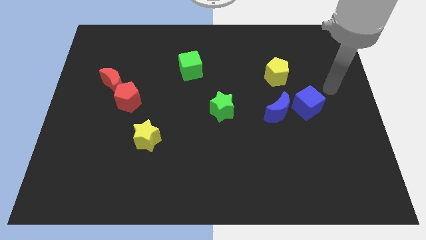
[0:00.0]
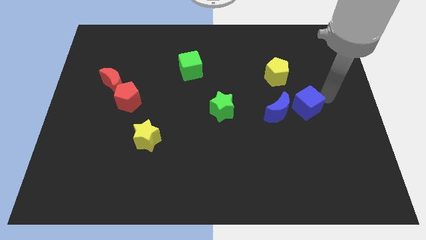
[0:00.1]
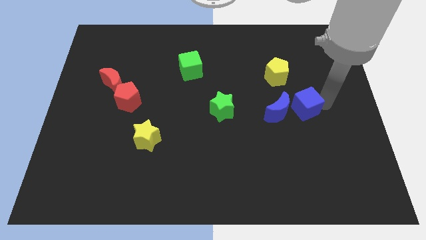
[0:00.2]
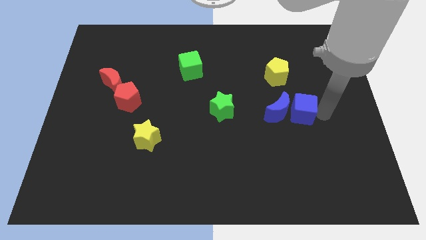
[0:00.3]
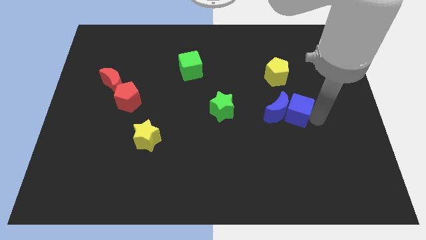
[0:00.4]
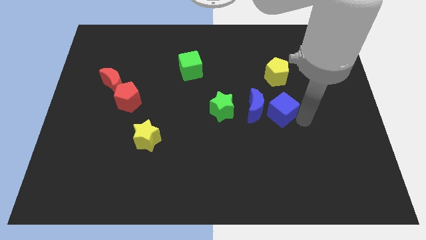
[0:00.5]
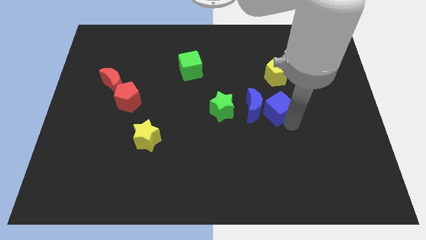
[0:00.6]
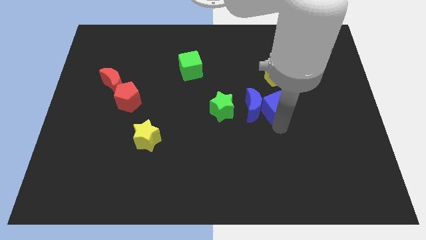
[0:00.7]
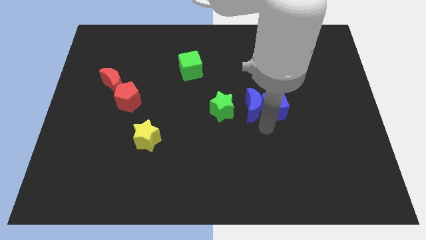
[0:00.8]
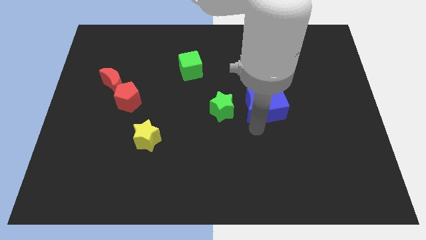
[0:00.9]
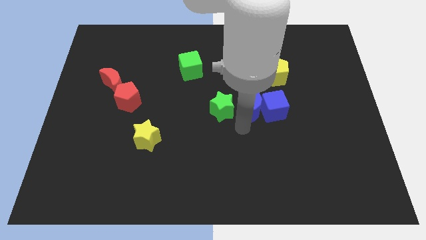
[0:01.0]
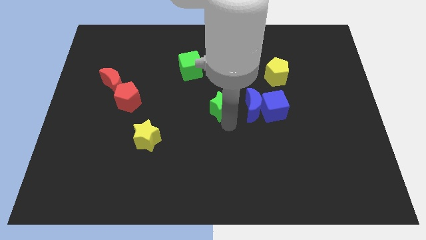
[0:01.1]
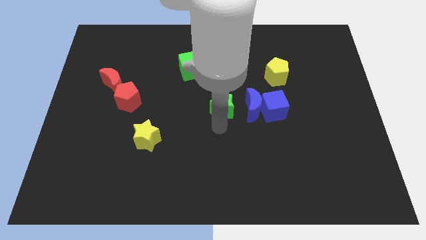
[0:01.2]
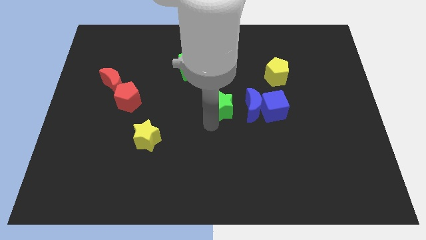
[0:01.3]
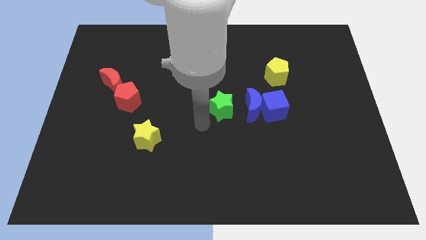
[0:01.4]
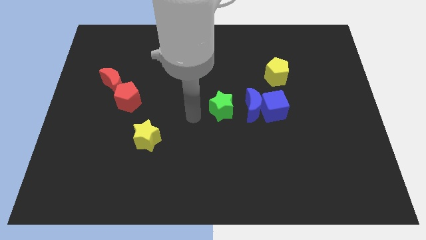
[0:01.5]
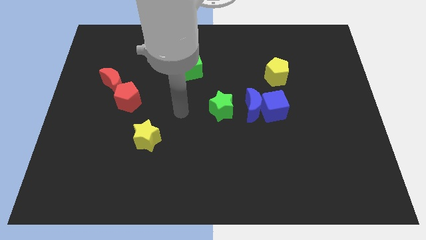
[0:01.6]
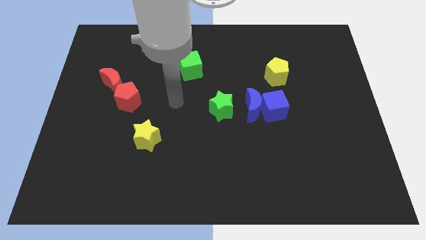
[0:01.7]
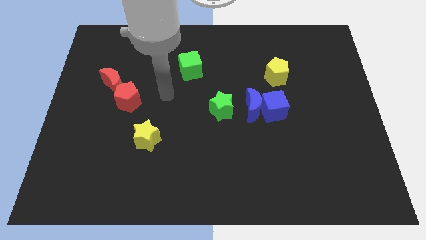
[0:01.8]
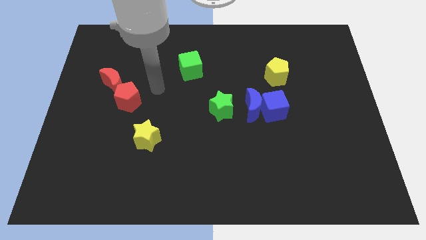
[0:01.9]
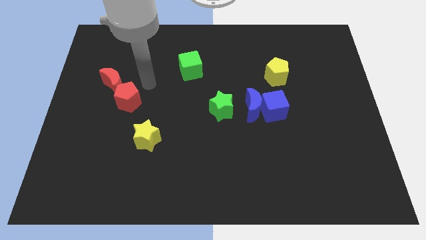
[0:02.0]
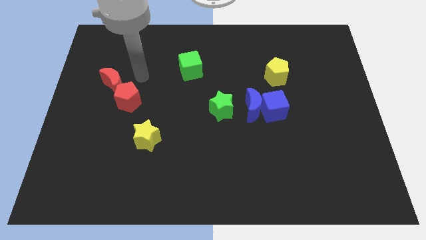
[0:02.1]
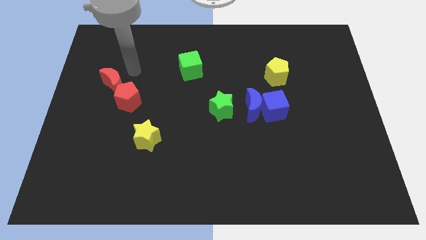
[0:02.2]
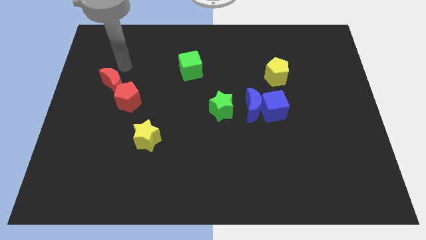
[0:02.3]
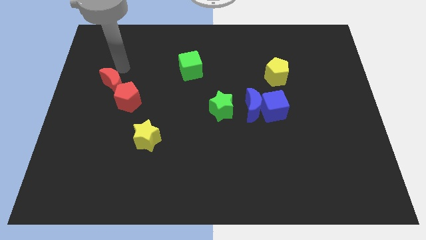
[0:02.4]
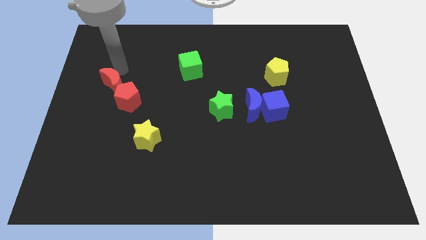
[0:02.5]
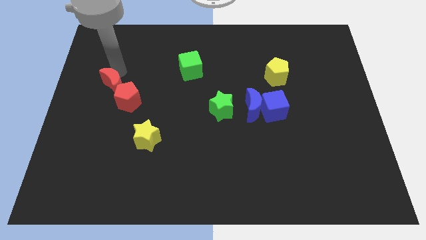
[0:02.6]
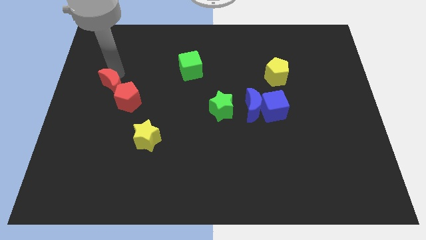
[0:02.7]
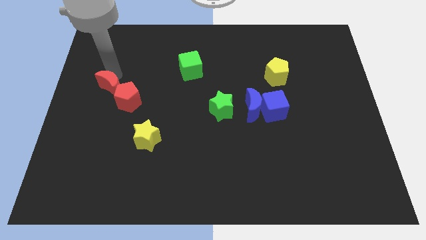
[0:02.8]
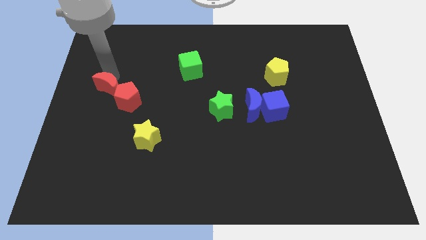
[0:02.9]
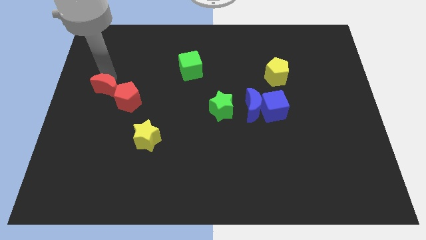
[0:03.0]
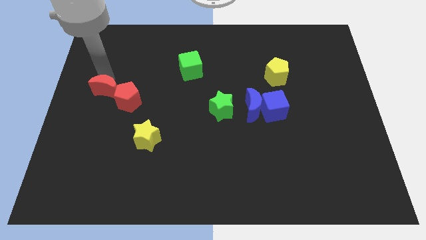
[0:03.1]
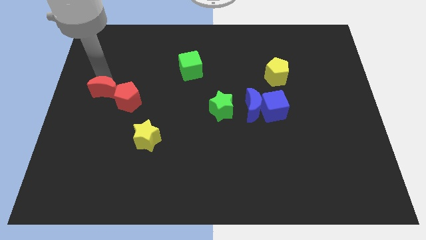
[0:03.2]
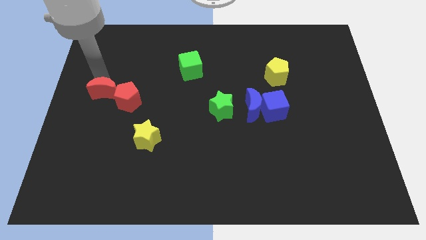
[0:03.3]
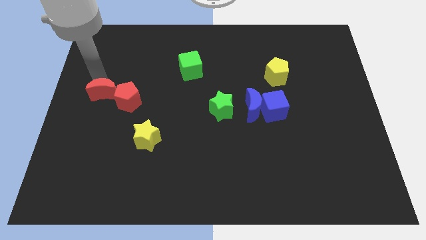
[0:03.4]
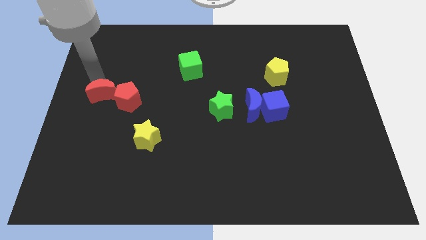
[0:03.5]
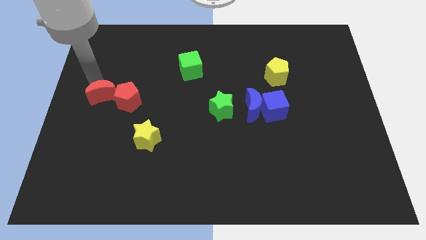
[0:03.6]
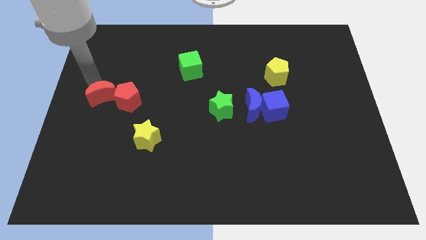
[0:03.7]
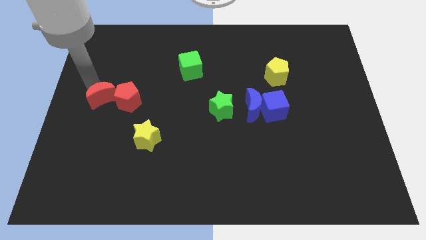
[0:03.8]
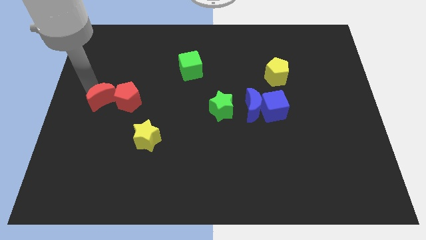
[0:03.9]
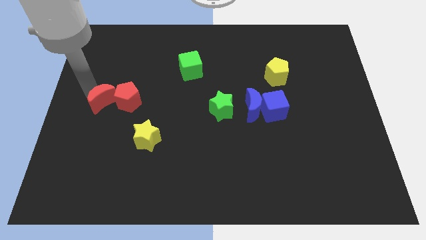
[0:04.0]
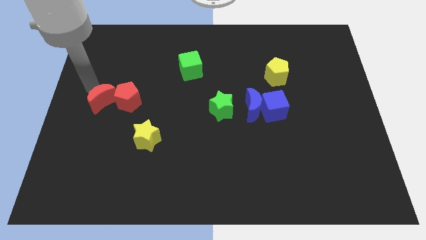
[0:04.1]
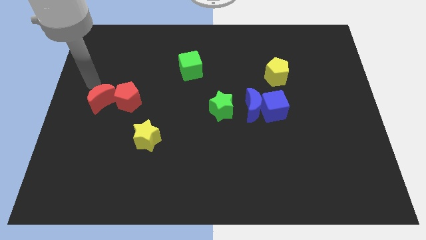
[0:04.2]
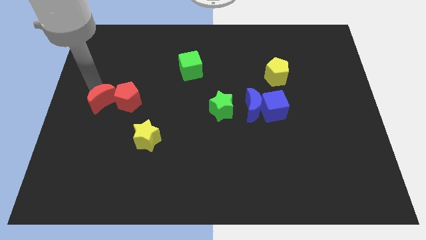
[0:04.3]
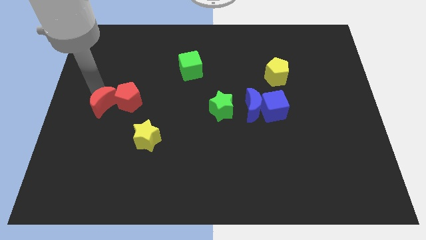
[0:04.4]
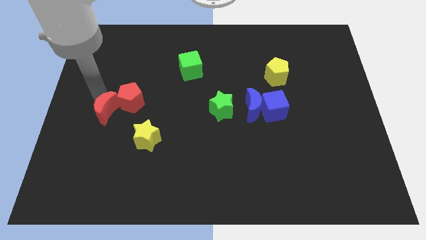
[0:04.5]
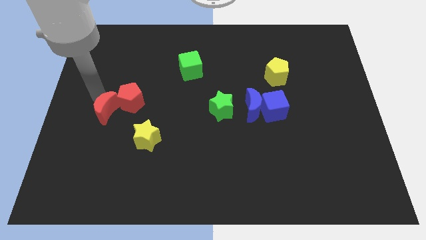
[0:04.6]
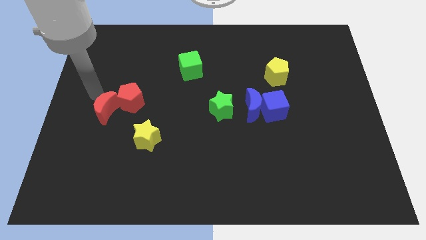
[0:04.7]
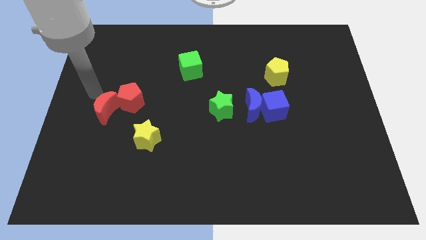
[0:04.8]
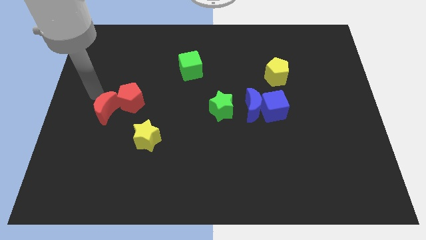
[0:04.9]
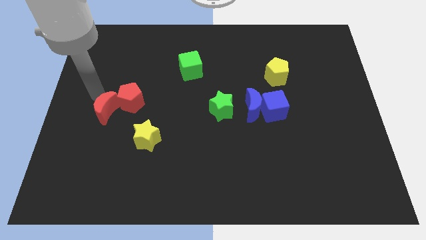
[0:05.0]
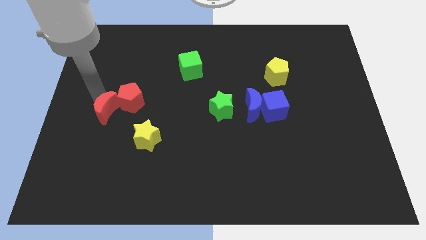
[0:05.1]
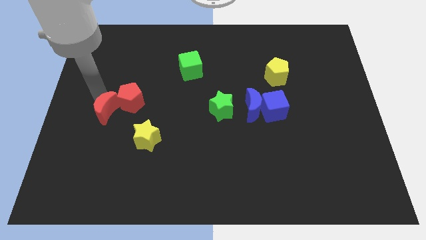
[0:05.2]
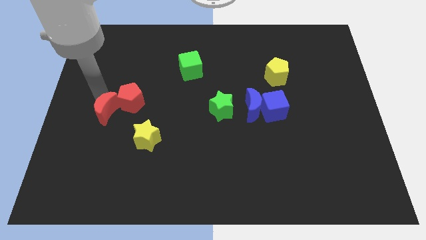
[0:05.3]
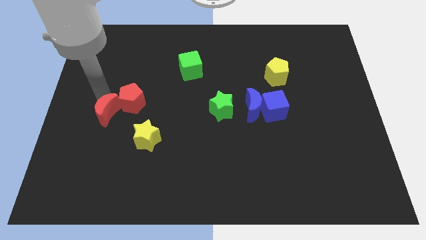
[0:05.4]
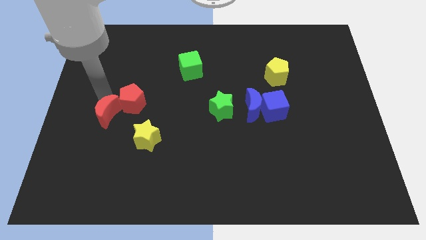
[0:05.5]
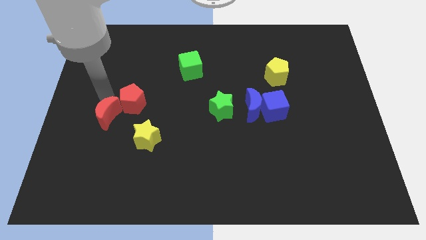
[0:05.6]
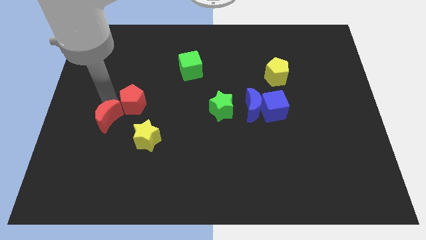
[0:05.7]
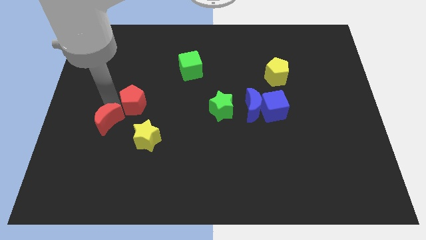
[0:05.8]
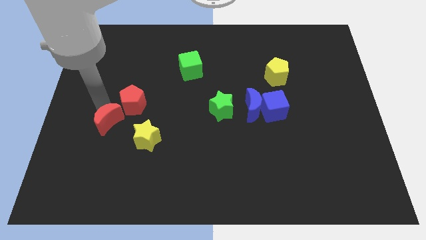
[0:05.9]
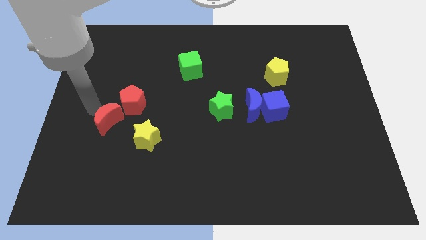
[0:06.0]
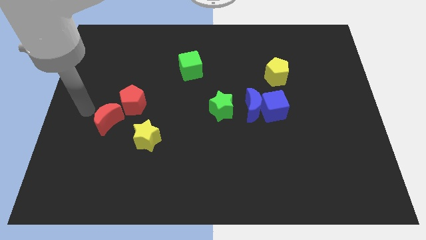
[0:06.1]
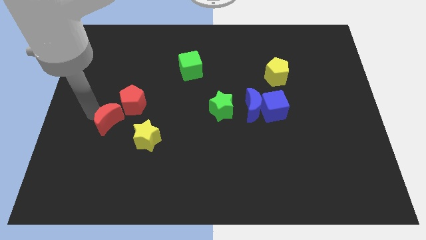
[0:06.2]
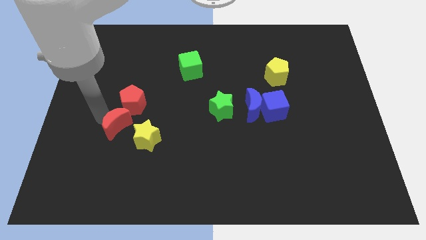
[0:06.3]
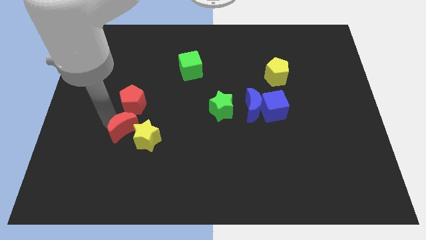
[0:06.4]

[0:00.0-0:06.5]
put the red moon close to the yellow star
